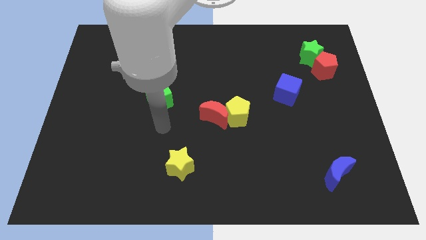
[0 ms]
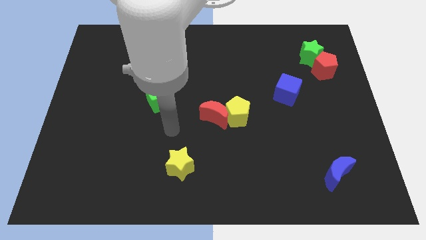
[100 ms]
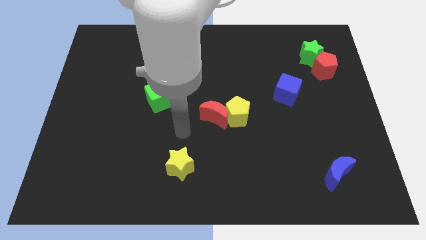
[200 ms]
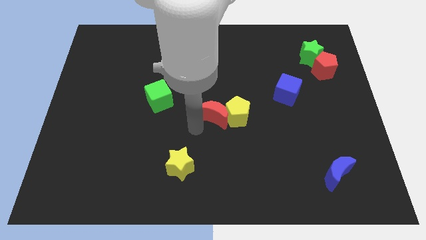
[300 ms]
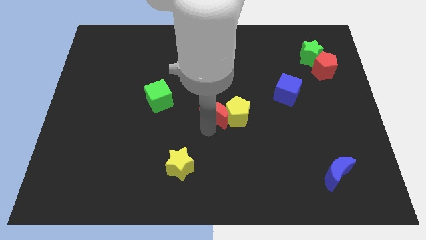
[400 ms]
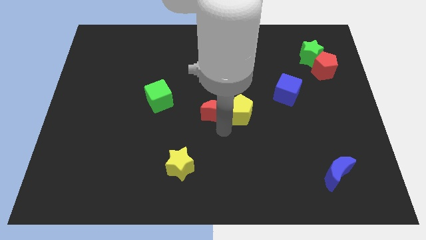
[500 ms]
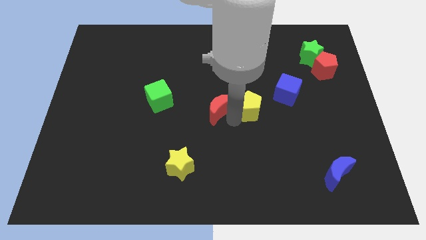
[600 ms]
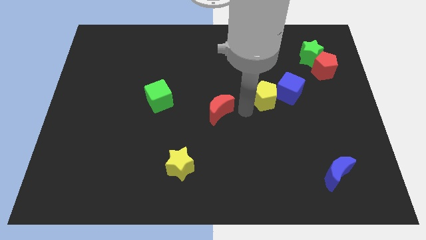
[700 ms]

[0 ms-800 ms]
pull the red moon apart from the yellow pentagon

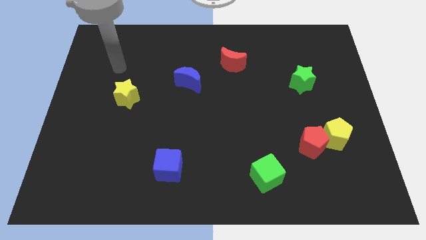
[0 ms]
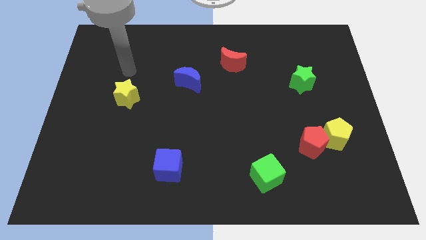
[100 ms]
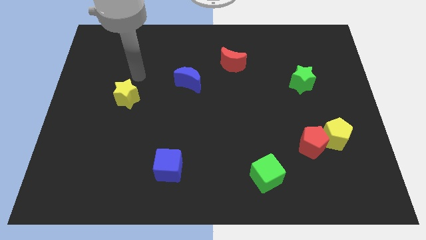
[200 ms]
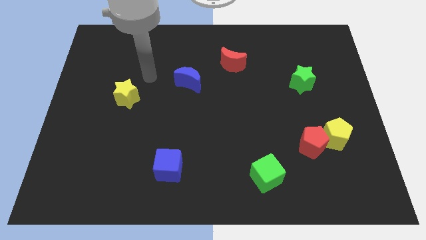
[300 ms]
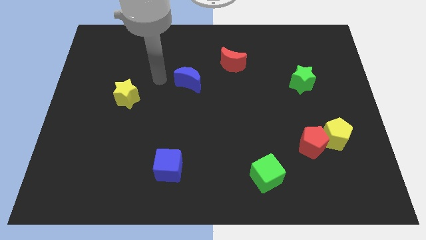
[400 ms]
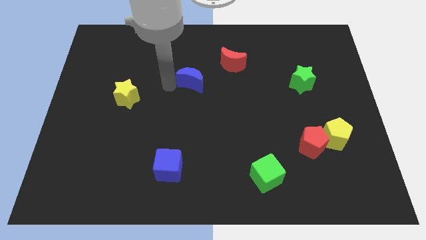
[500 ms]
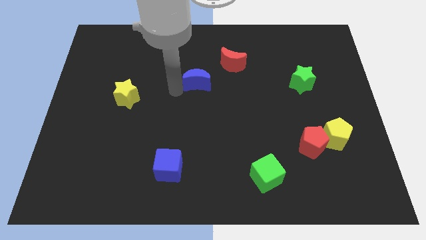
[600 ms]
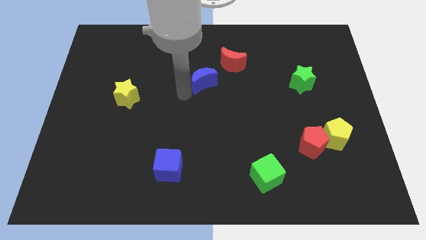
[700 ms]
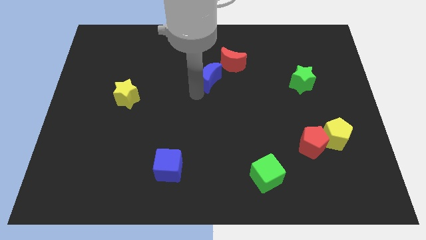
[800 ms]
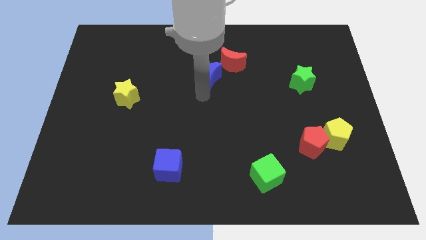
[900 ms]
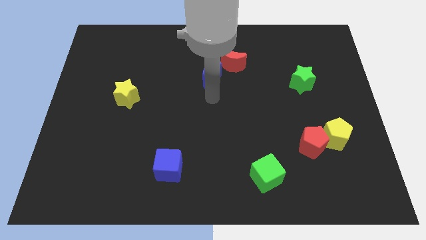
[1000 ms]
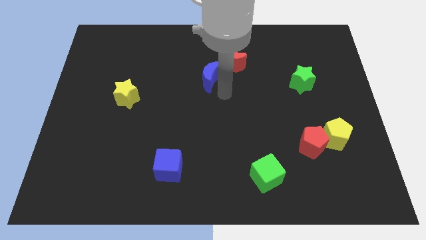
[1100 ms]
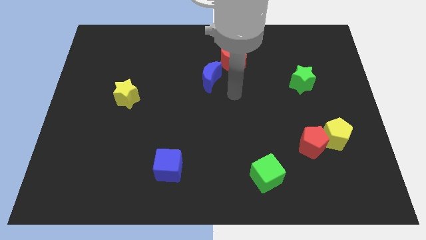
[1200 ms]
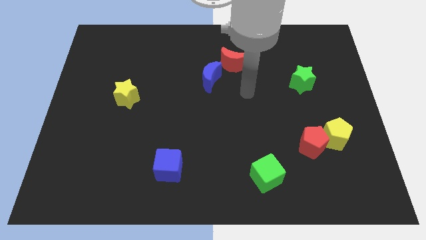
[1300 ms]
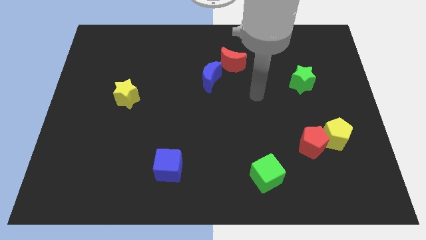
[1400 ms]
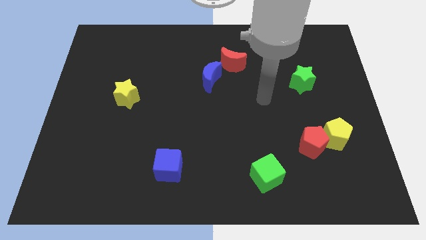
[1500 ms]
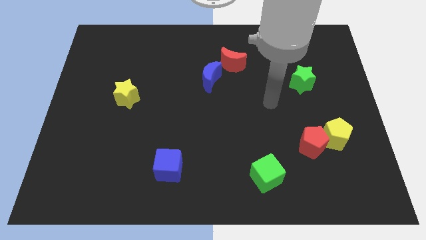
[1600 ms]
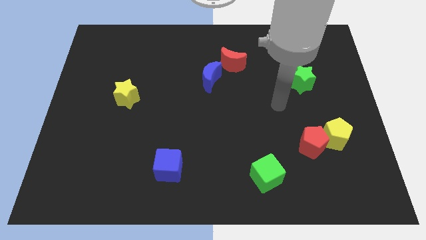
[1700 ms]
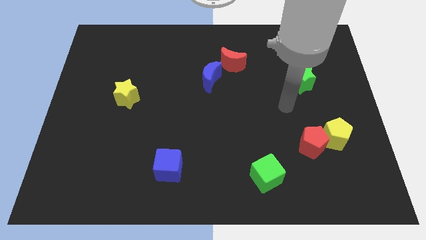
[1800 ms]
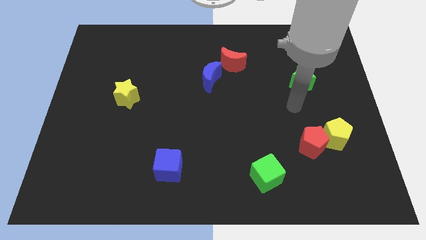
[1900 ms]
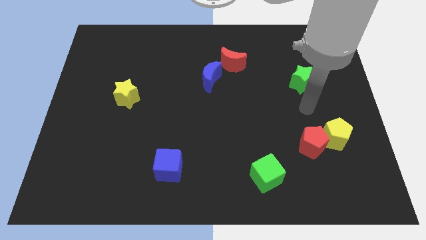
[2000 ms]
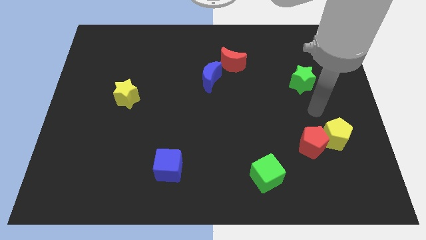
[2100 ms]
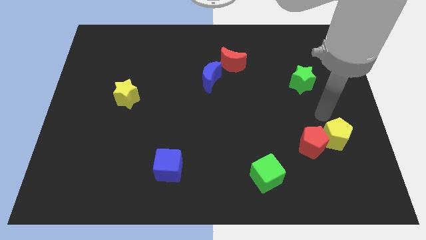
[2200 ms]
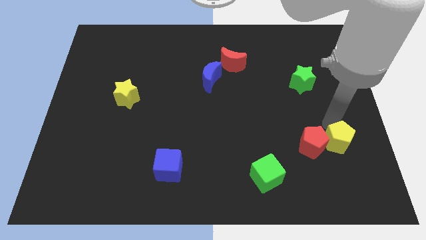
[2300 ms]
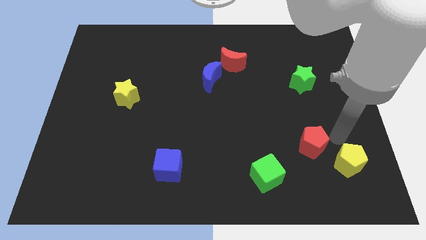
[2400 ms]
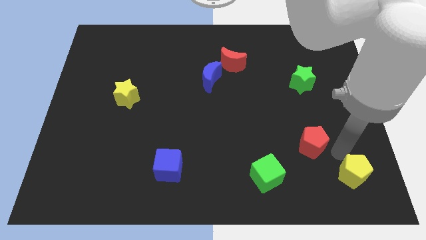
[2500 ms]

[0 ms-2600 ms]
separate the red pentagon from the yellow pentagon

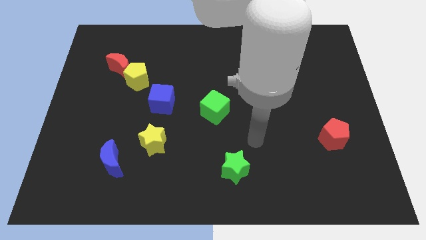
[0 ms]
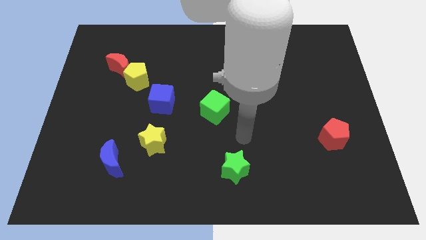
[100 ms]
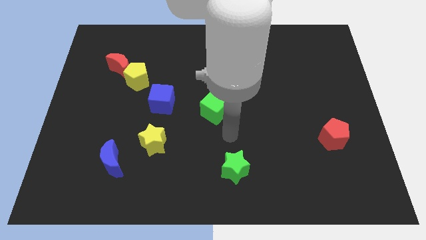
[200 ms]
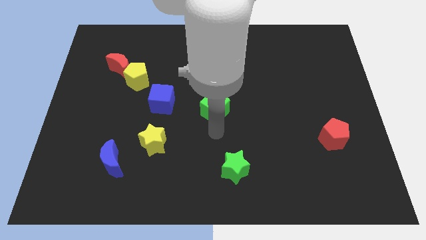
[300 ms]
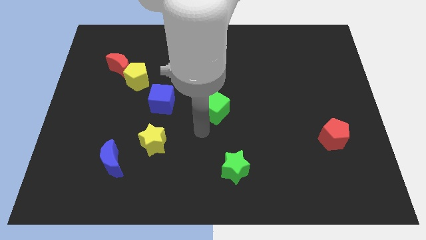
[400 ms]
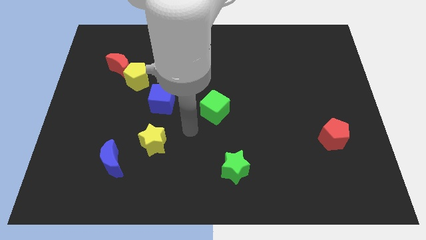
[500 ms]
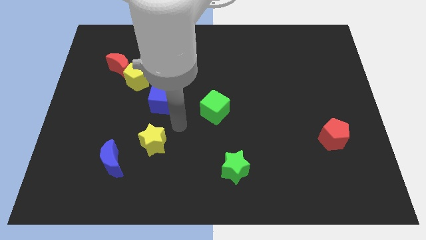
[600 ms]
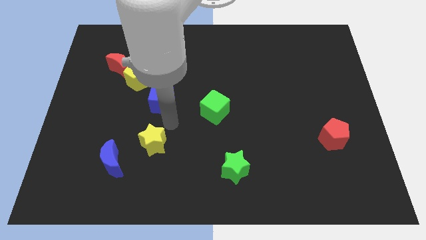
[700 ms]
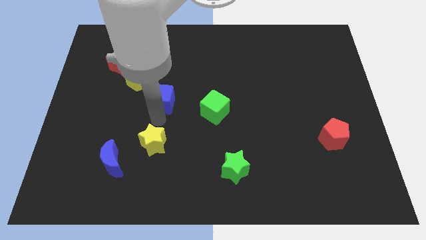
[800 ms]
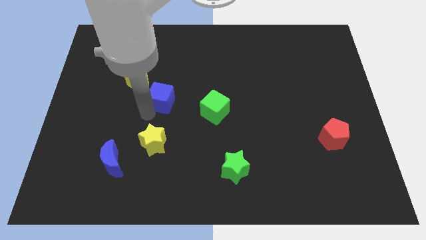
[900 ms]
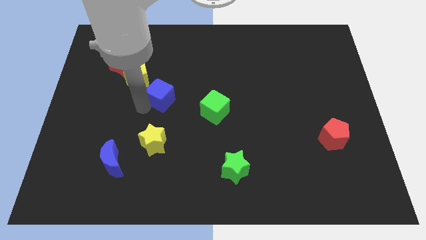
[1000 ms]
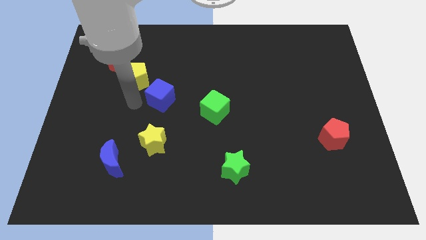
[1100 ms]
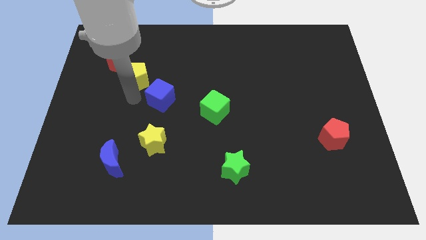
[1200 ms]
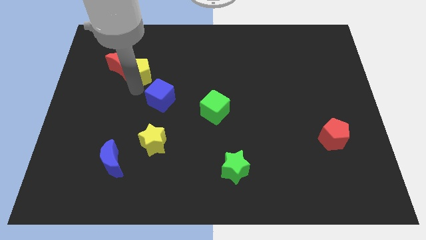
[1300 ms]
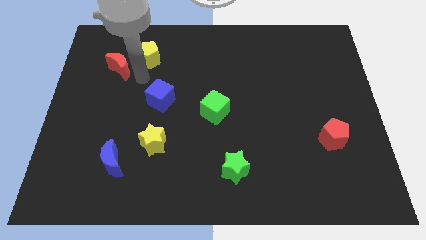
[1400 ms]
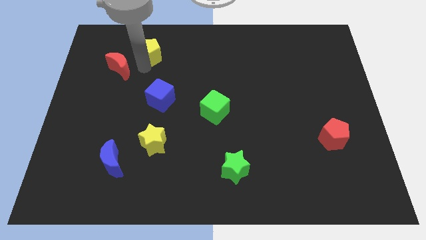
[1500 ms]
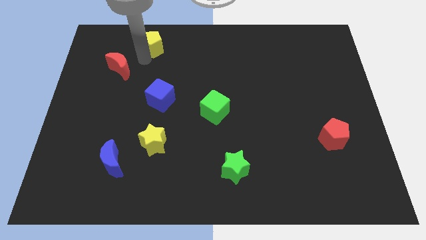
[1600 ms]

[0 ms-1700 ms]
move the red moon away from the yellow pentagon

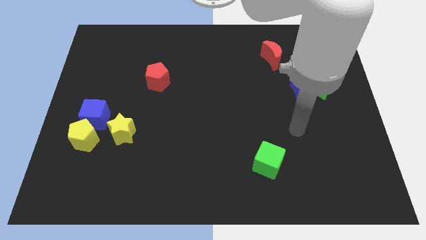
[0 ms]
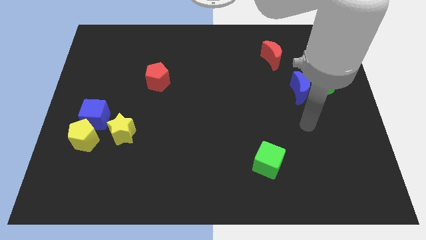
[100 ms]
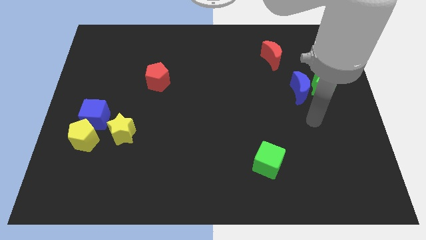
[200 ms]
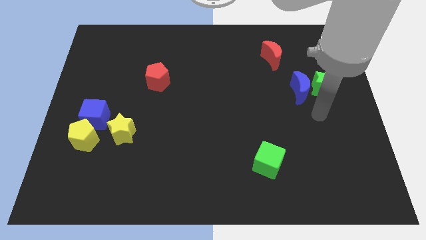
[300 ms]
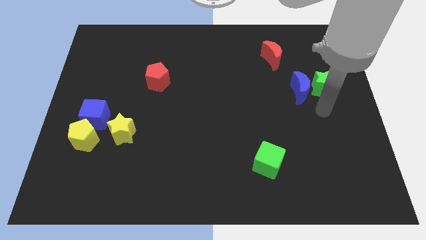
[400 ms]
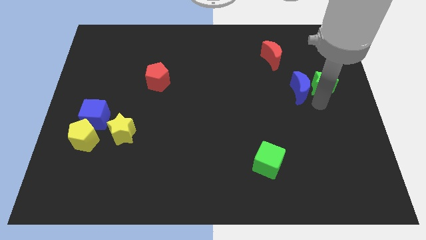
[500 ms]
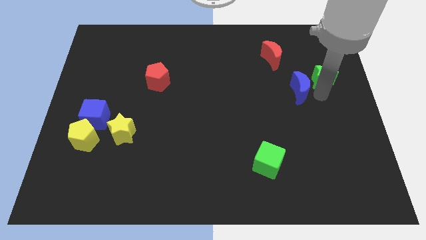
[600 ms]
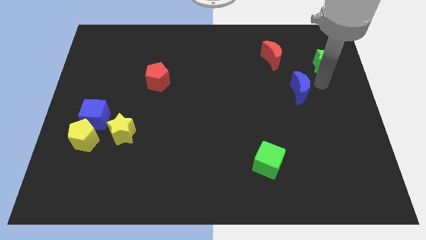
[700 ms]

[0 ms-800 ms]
pull the blue moon apart from the green star

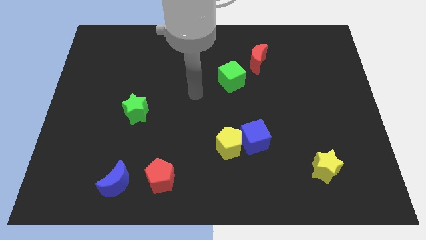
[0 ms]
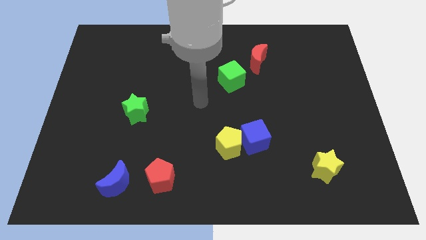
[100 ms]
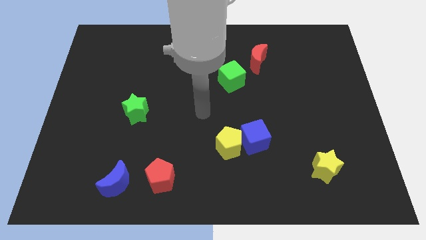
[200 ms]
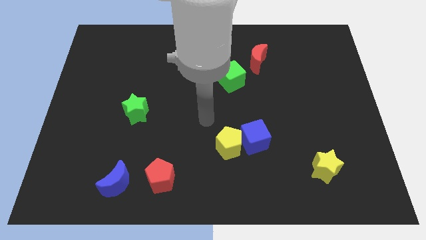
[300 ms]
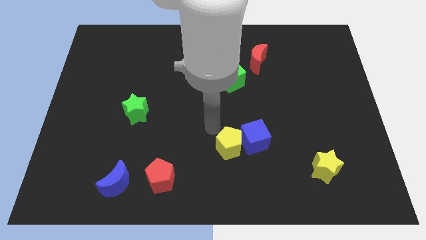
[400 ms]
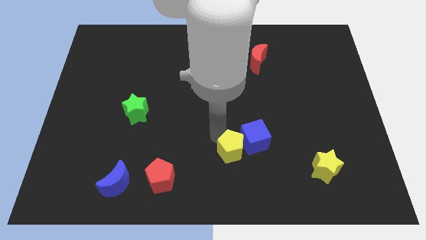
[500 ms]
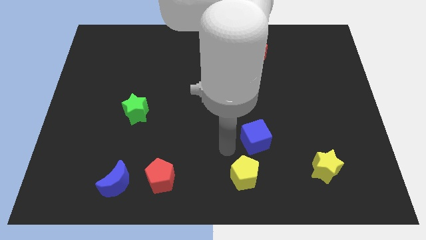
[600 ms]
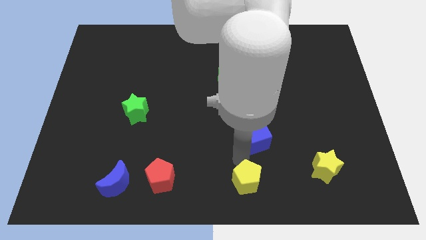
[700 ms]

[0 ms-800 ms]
move the blue cube away from the yellow pentagon

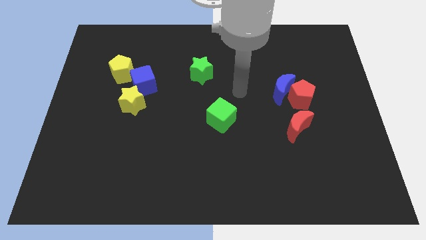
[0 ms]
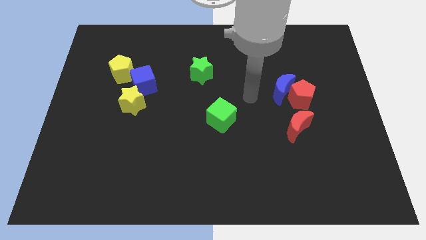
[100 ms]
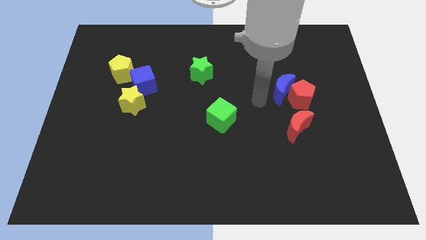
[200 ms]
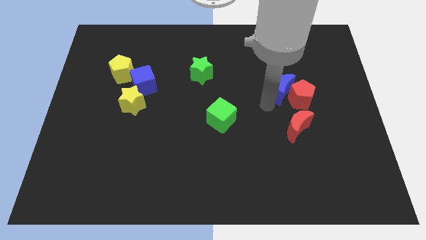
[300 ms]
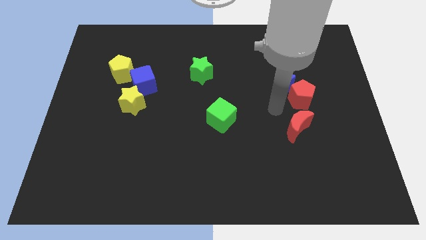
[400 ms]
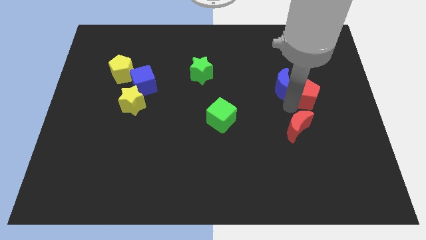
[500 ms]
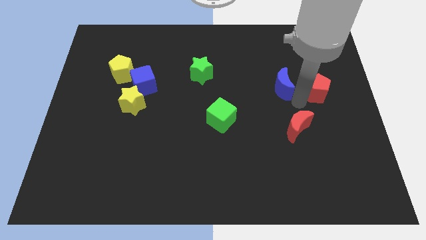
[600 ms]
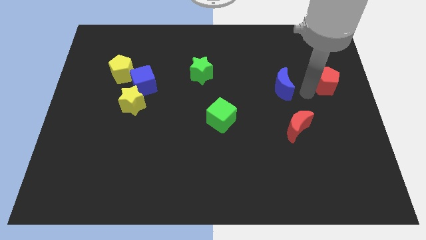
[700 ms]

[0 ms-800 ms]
separate the blue moon from the red pentagon

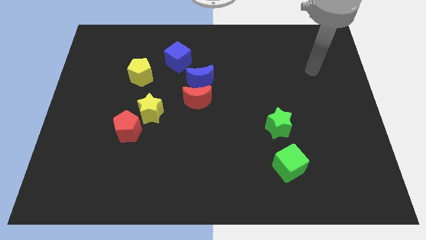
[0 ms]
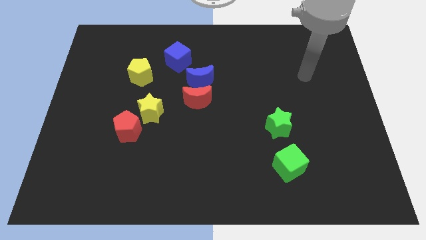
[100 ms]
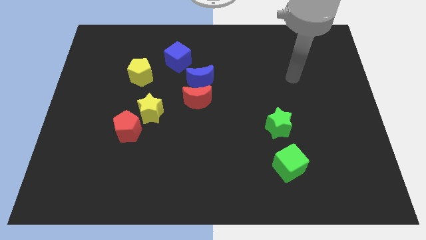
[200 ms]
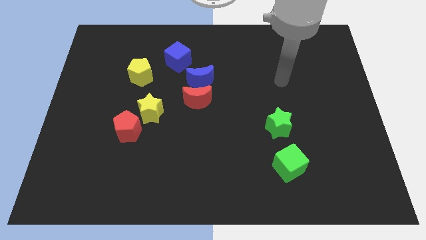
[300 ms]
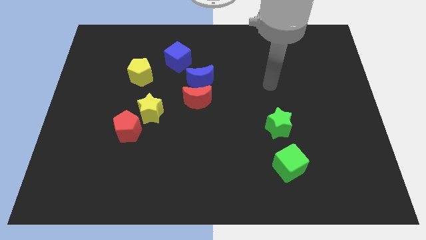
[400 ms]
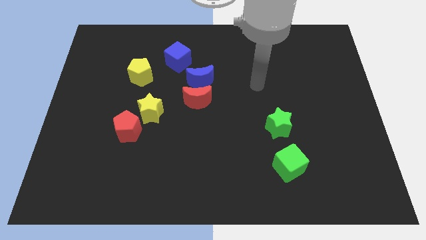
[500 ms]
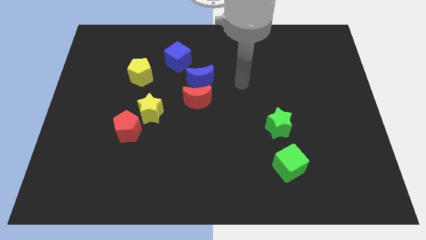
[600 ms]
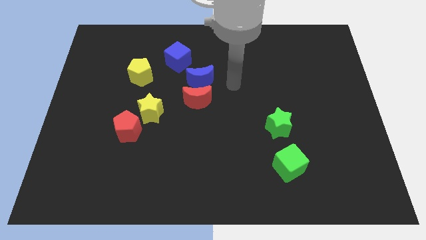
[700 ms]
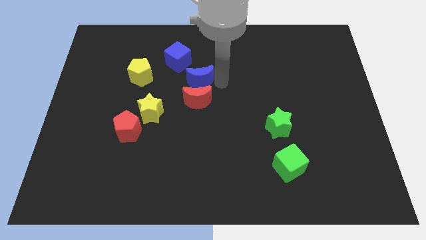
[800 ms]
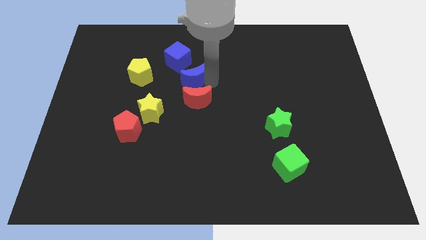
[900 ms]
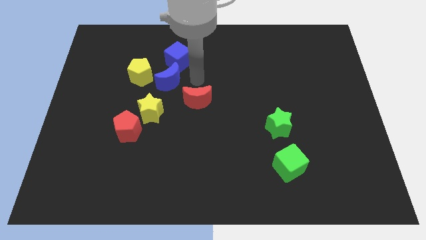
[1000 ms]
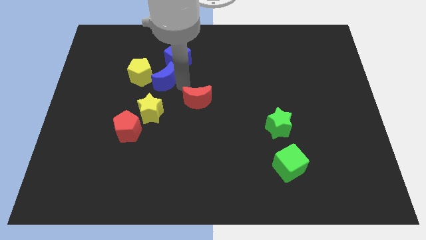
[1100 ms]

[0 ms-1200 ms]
pull the red moon apart from the blue moon

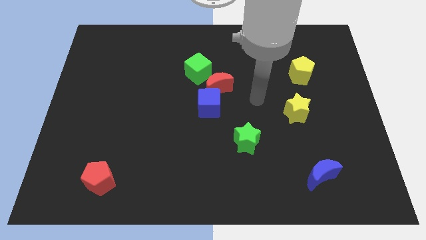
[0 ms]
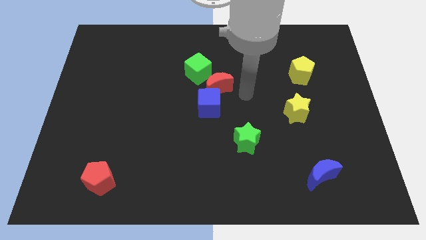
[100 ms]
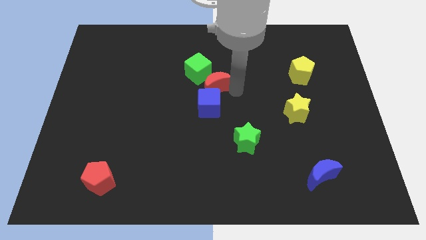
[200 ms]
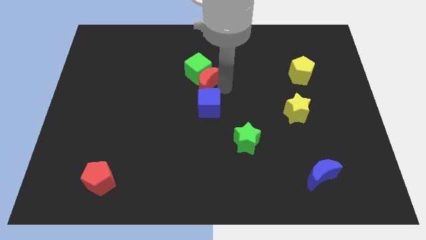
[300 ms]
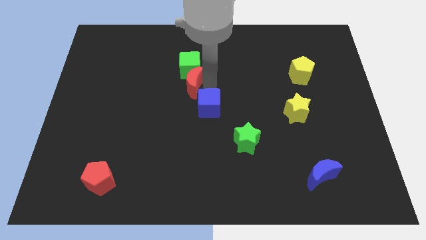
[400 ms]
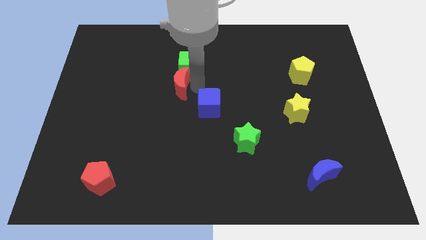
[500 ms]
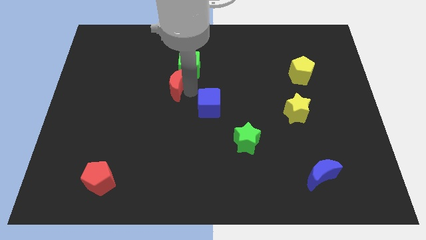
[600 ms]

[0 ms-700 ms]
pull the blue cube apart from the red moon
